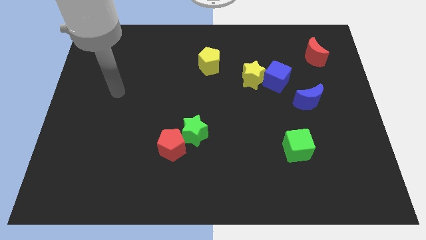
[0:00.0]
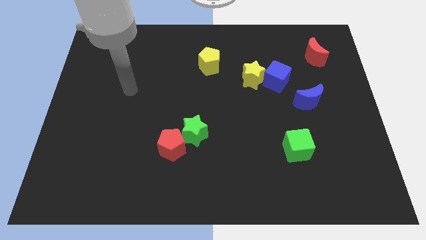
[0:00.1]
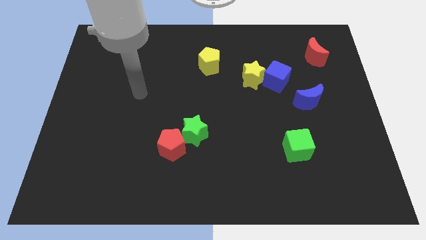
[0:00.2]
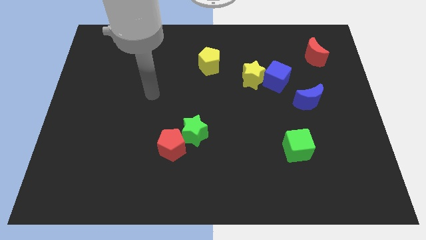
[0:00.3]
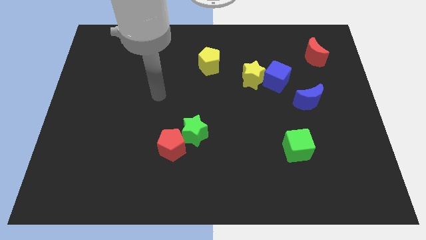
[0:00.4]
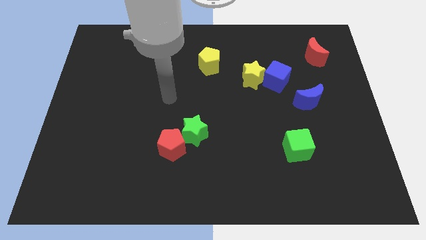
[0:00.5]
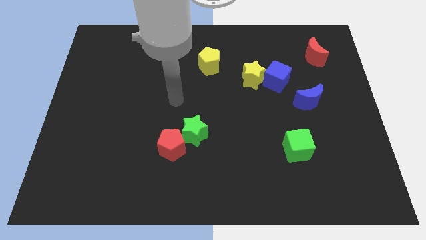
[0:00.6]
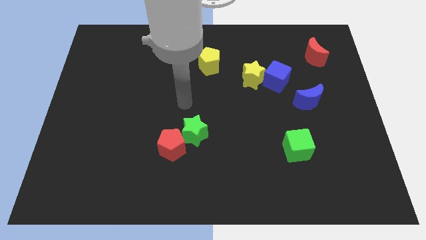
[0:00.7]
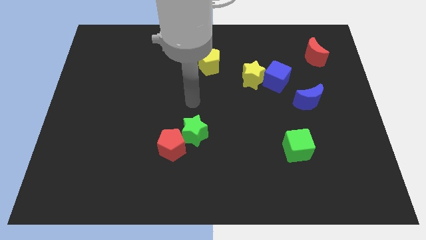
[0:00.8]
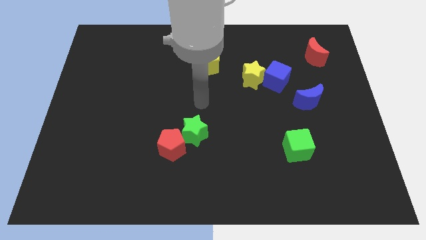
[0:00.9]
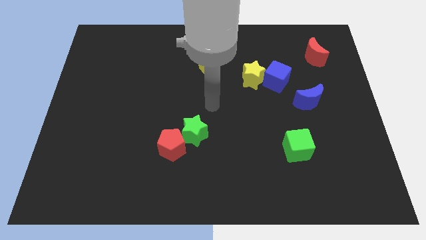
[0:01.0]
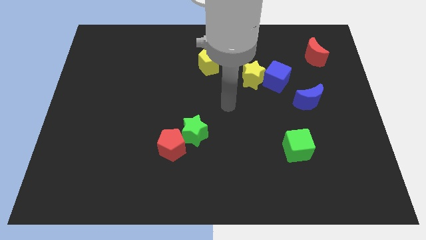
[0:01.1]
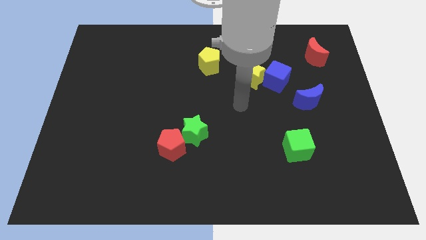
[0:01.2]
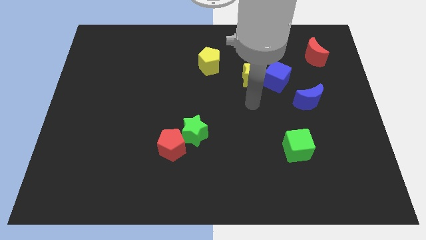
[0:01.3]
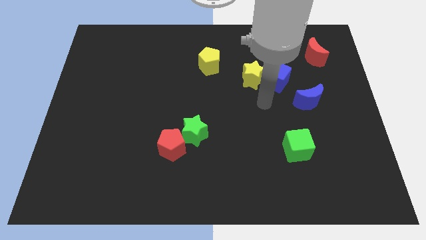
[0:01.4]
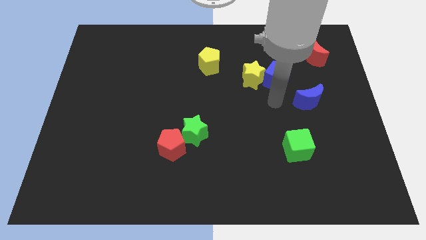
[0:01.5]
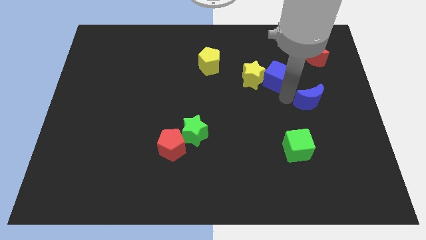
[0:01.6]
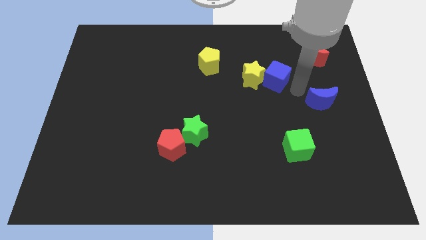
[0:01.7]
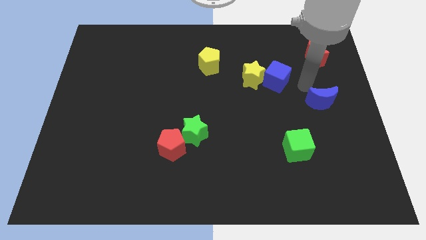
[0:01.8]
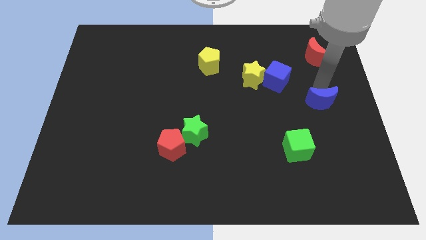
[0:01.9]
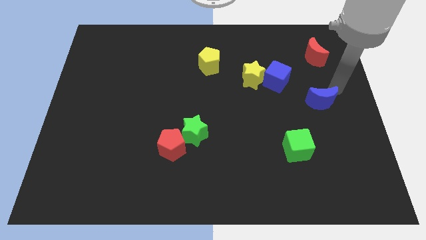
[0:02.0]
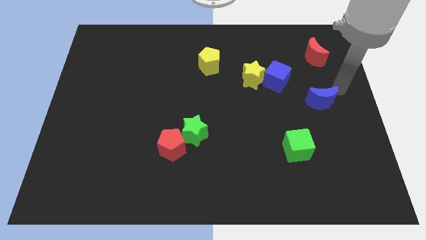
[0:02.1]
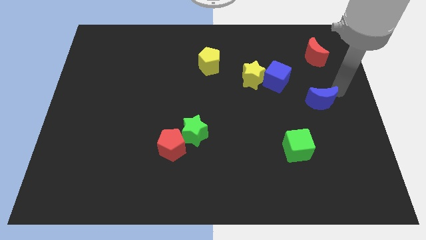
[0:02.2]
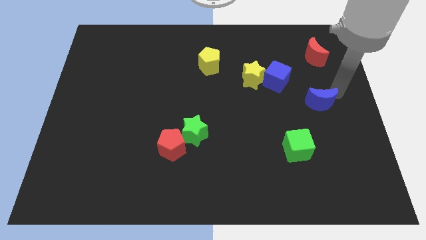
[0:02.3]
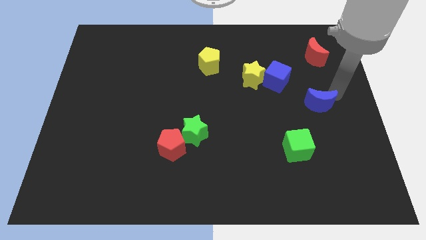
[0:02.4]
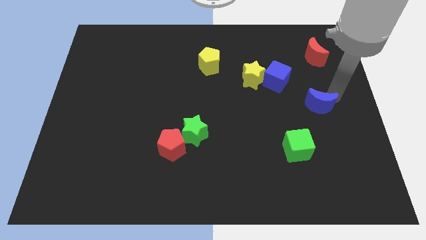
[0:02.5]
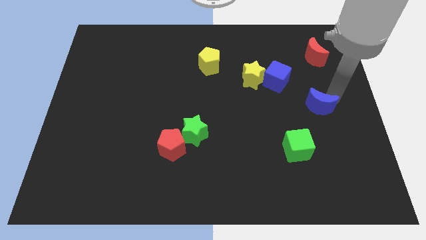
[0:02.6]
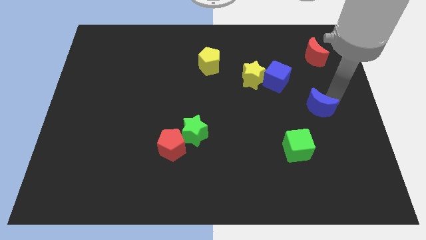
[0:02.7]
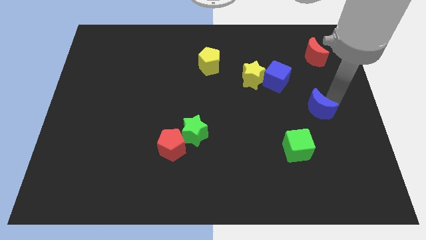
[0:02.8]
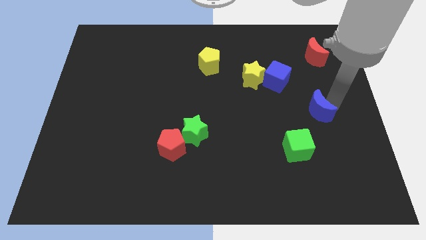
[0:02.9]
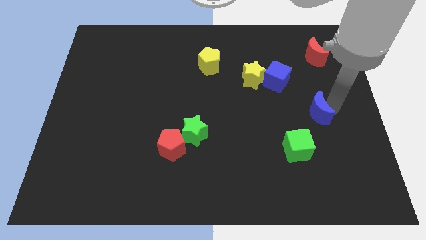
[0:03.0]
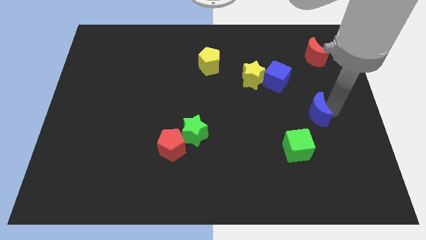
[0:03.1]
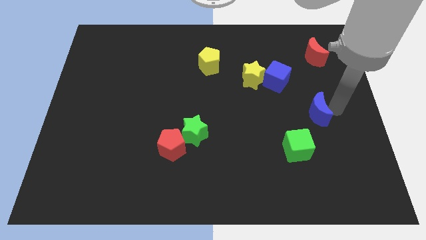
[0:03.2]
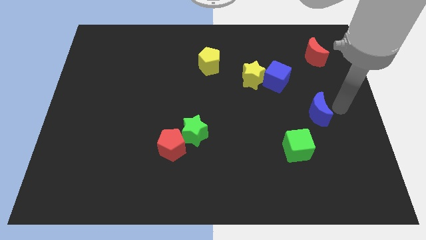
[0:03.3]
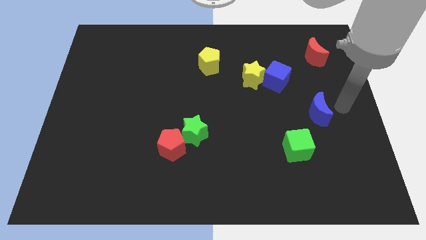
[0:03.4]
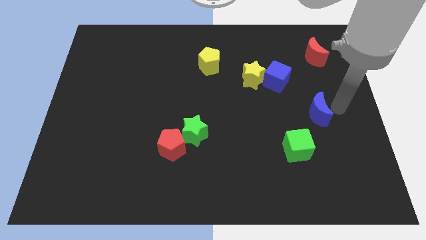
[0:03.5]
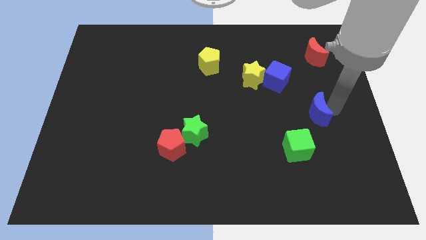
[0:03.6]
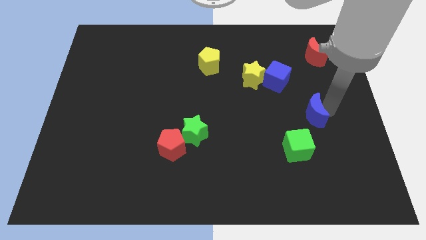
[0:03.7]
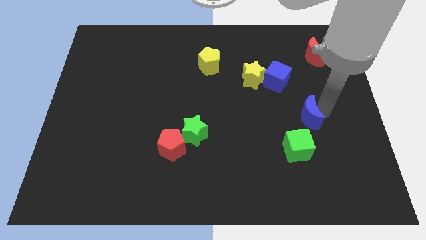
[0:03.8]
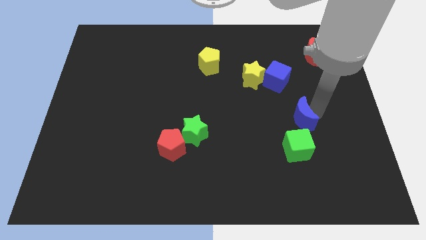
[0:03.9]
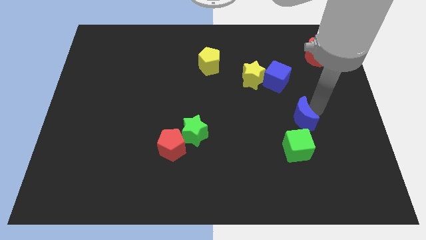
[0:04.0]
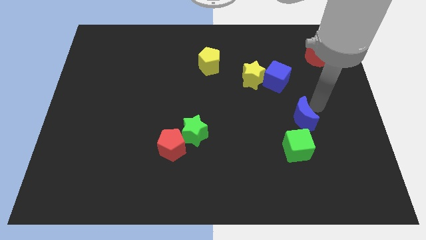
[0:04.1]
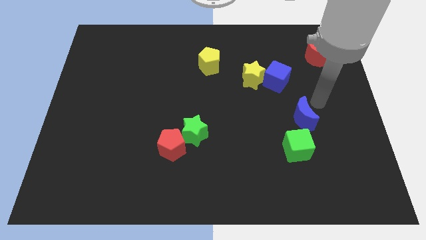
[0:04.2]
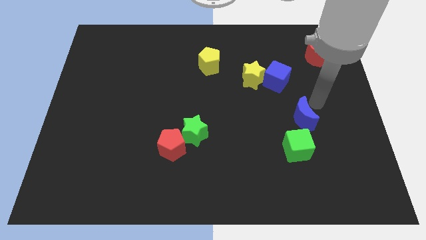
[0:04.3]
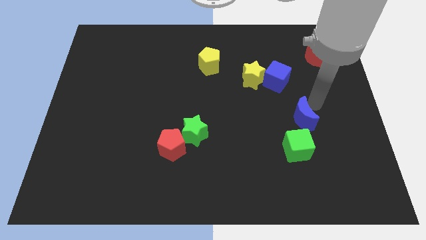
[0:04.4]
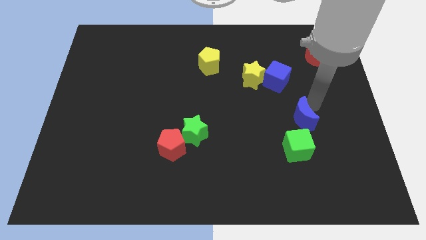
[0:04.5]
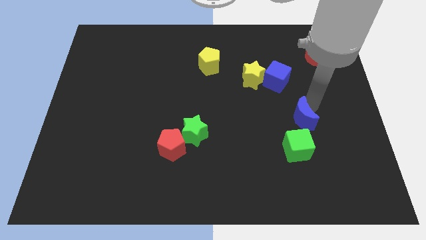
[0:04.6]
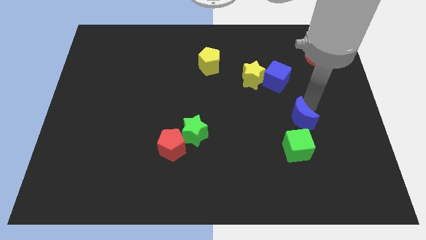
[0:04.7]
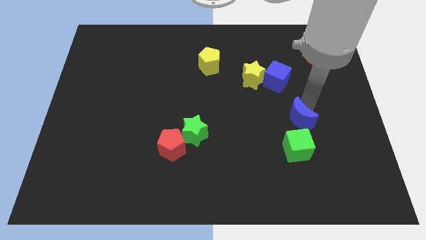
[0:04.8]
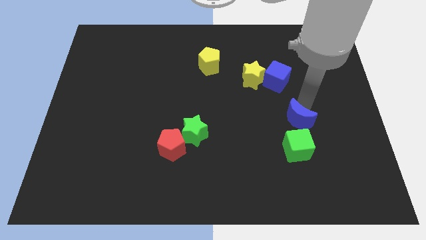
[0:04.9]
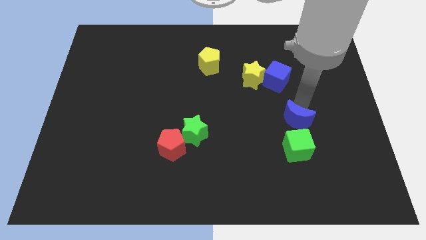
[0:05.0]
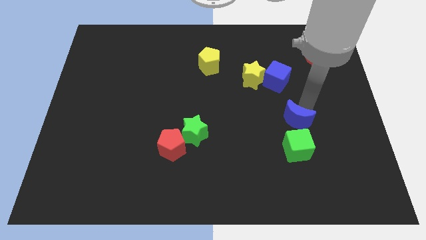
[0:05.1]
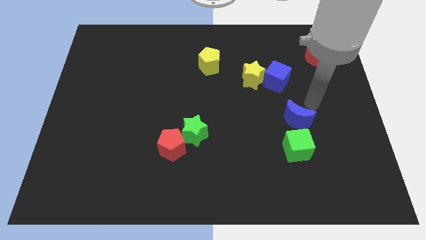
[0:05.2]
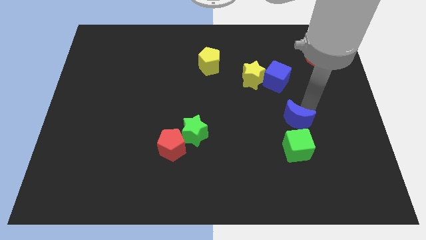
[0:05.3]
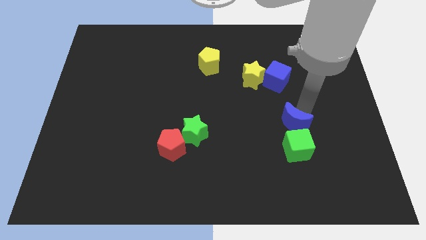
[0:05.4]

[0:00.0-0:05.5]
slightly push the blue moon downwards and left

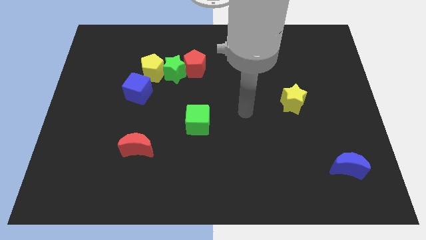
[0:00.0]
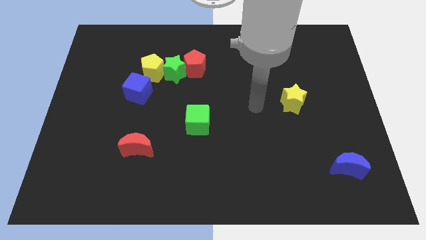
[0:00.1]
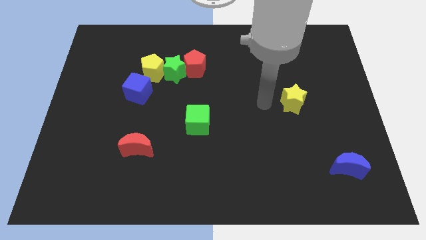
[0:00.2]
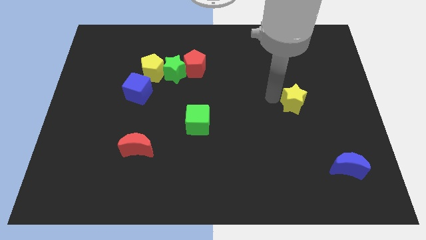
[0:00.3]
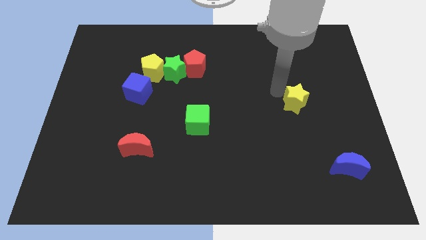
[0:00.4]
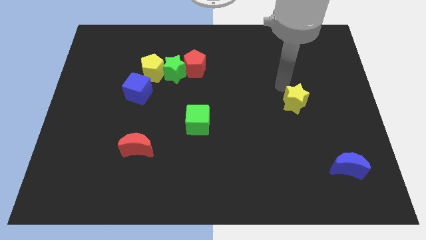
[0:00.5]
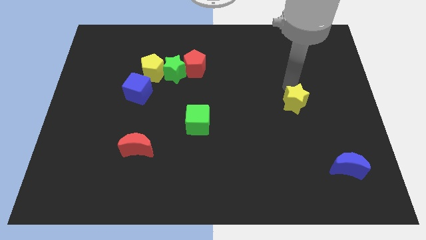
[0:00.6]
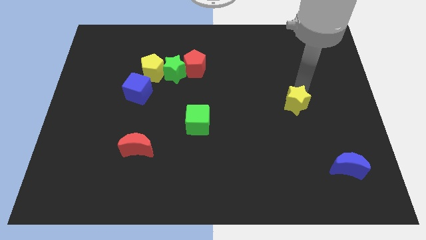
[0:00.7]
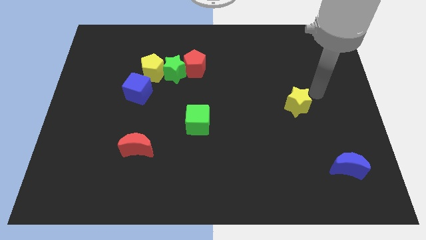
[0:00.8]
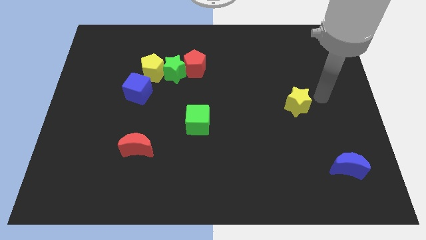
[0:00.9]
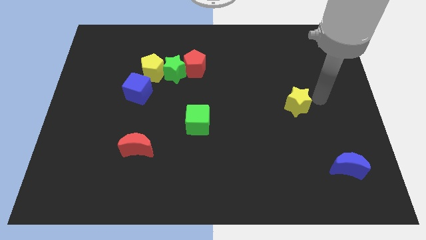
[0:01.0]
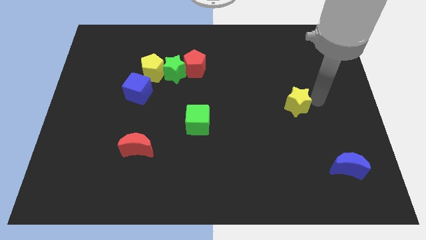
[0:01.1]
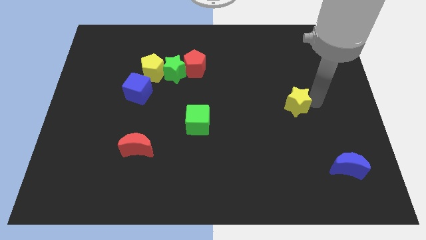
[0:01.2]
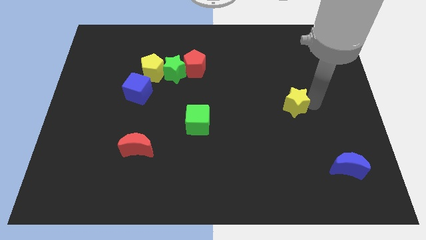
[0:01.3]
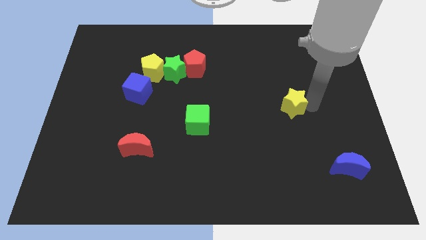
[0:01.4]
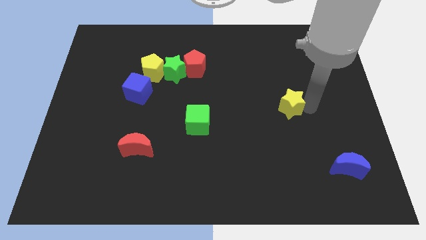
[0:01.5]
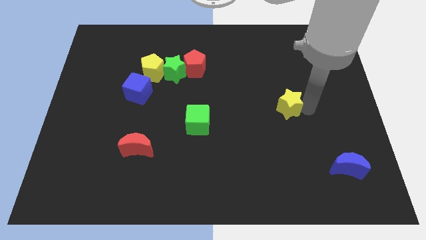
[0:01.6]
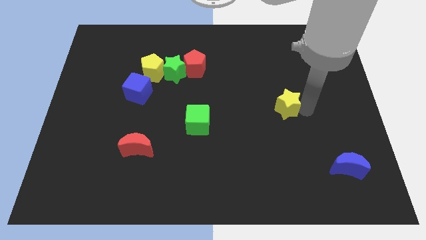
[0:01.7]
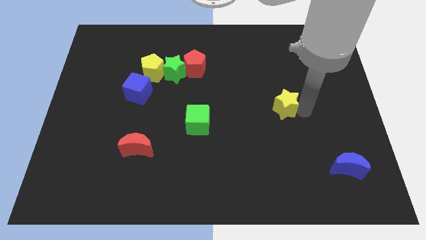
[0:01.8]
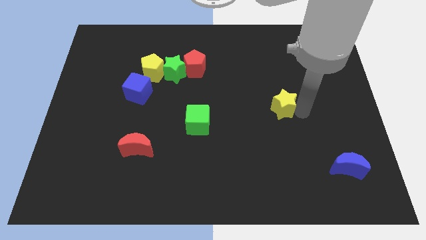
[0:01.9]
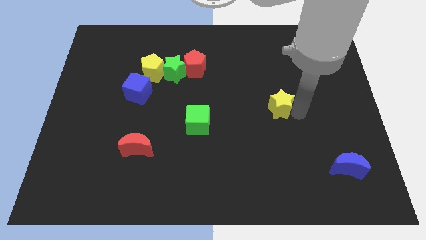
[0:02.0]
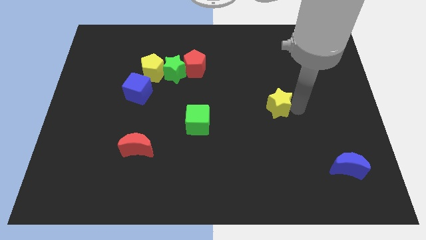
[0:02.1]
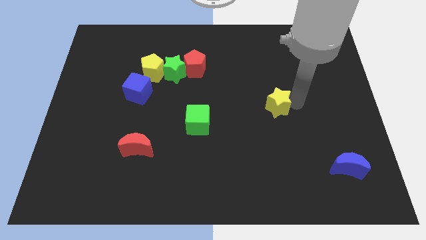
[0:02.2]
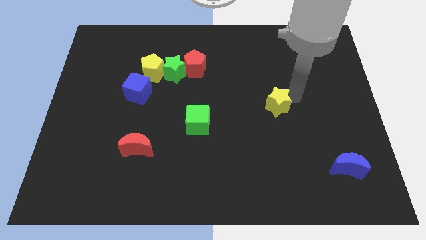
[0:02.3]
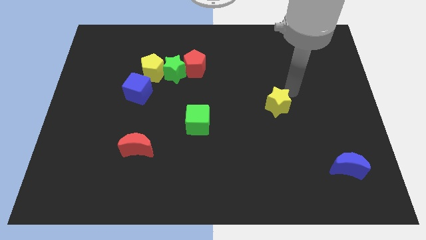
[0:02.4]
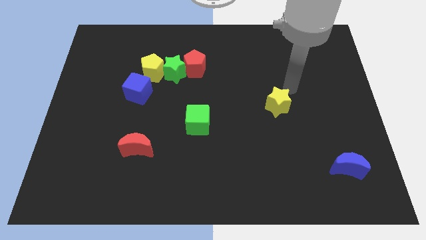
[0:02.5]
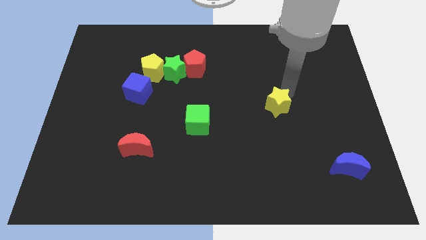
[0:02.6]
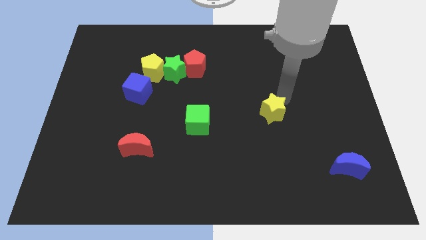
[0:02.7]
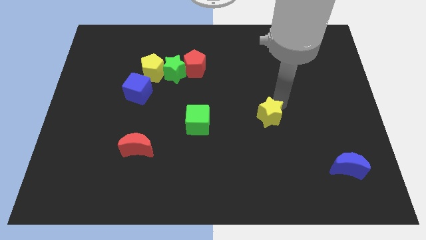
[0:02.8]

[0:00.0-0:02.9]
push the yellow star somewhat down and left diagonally
